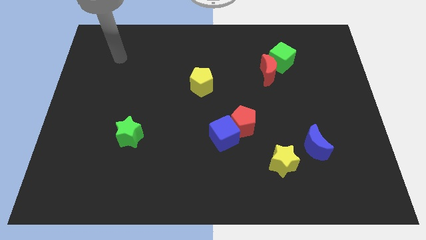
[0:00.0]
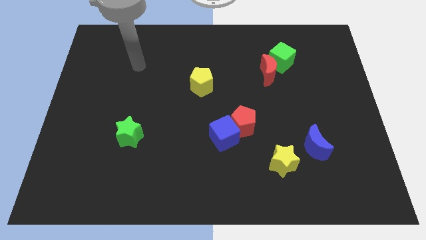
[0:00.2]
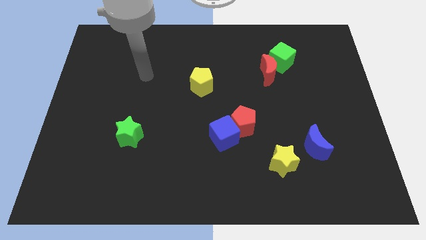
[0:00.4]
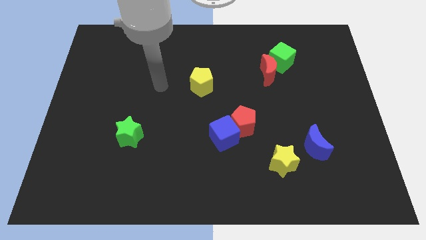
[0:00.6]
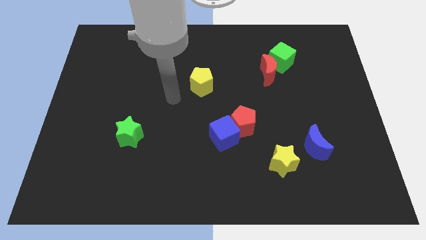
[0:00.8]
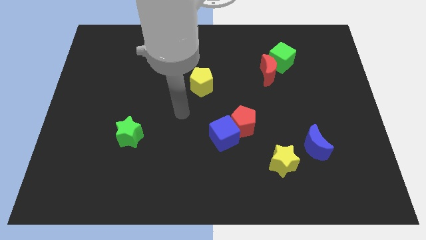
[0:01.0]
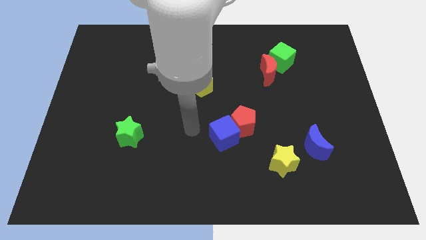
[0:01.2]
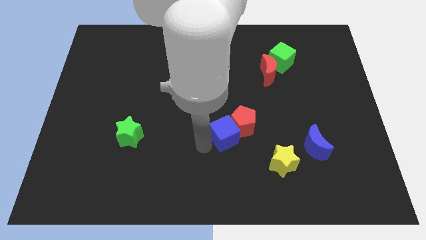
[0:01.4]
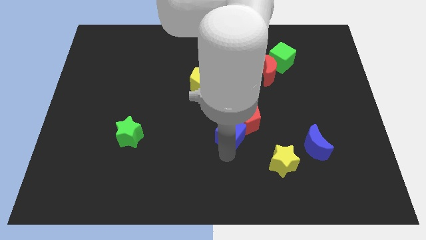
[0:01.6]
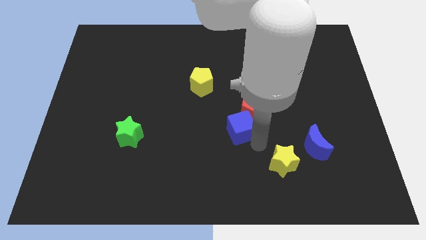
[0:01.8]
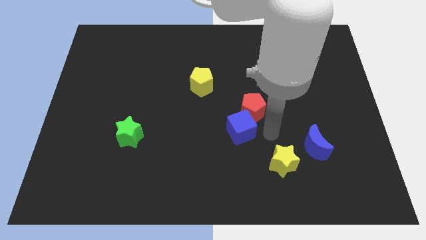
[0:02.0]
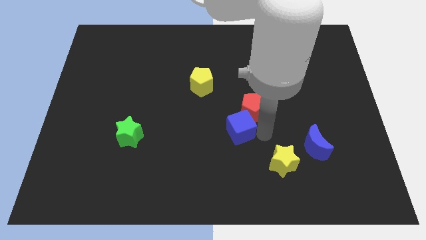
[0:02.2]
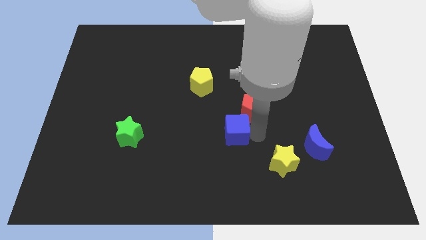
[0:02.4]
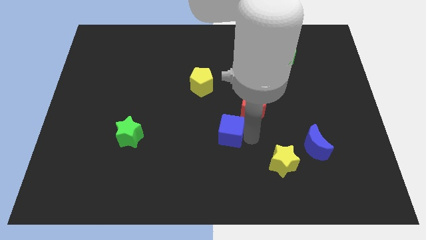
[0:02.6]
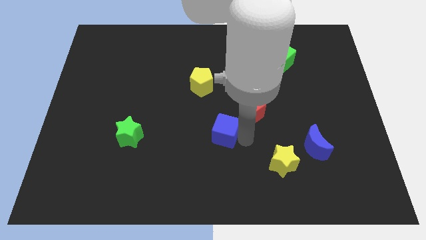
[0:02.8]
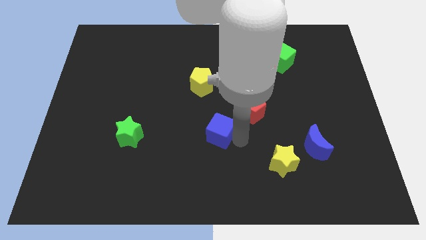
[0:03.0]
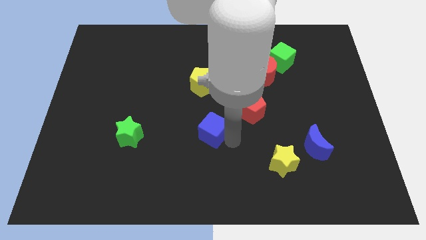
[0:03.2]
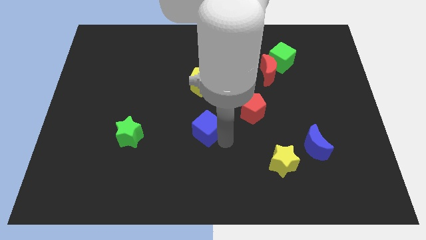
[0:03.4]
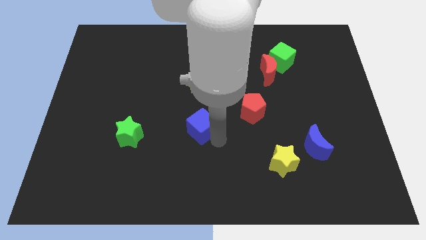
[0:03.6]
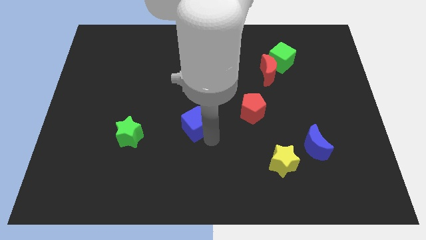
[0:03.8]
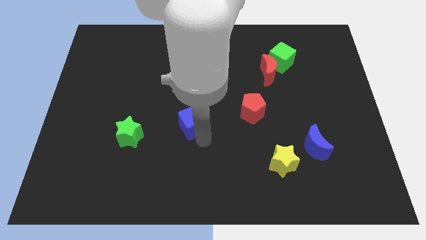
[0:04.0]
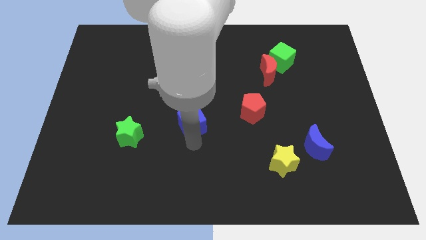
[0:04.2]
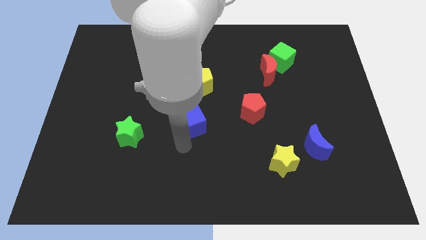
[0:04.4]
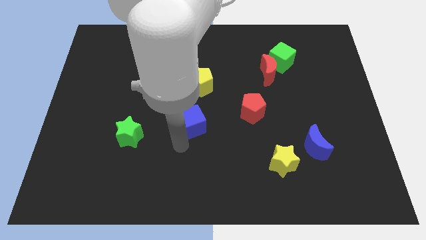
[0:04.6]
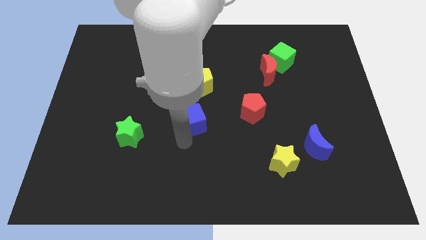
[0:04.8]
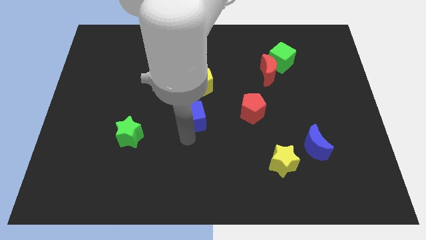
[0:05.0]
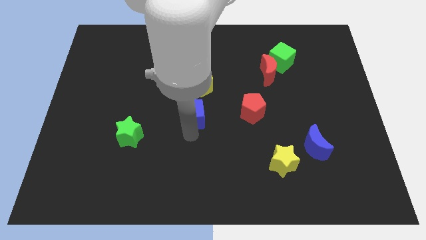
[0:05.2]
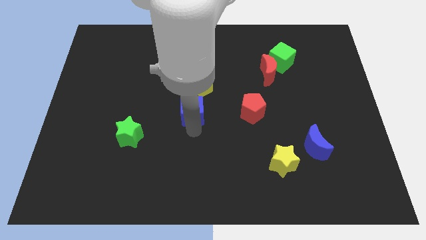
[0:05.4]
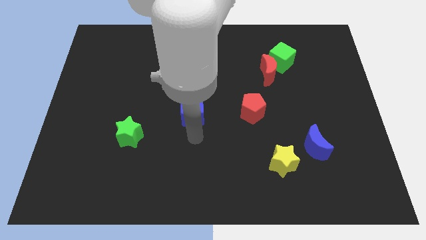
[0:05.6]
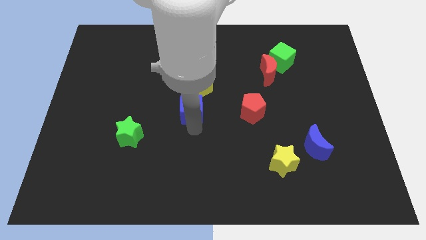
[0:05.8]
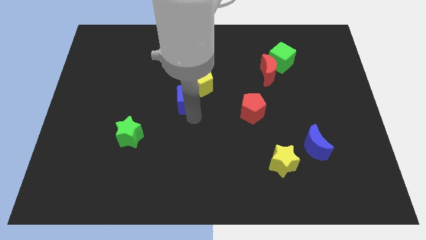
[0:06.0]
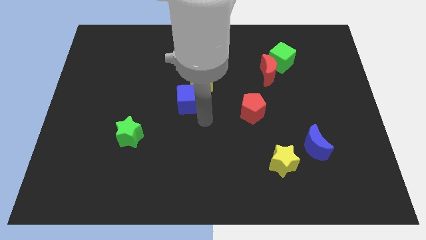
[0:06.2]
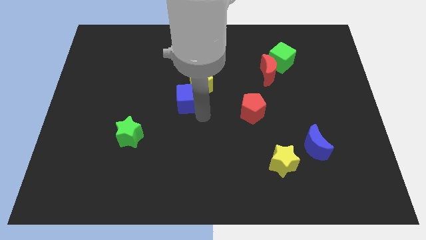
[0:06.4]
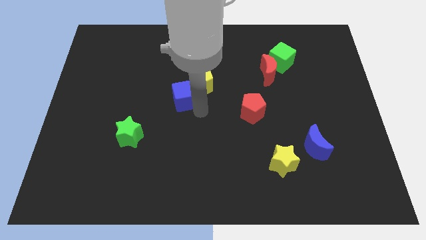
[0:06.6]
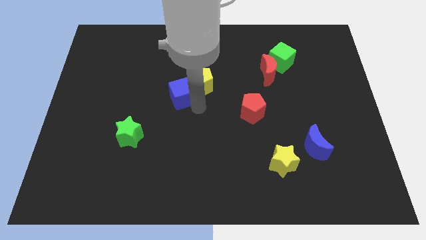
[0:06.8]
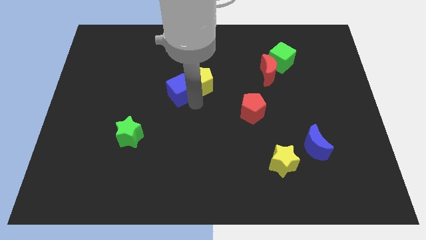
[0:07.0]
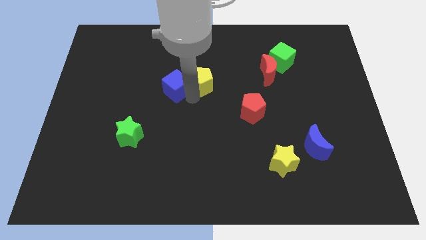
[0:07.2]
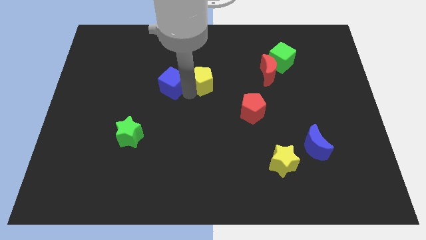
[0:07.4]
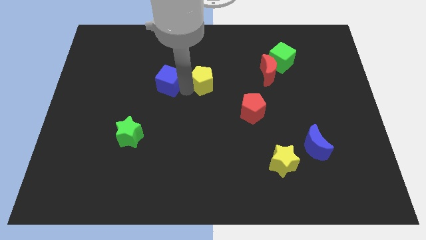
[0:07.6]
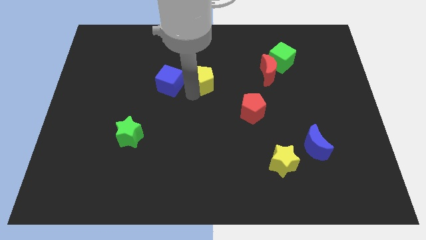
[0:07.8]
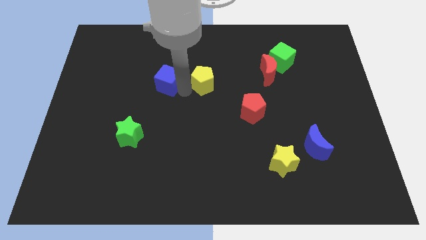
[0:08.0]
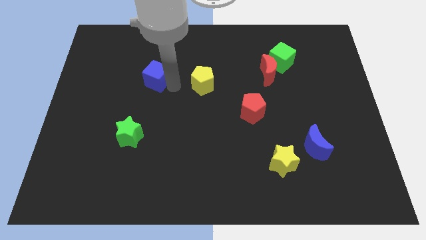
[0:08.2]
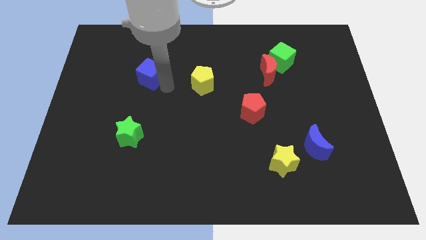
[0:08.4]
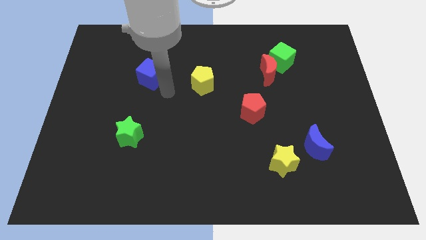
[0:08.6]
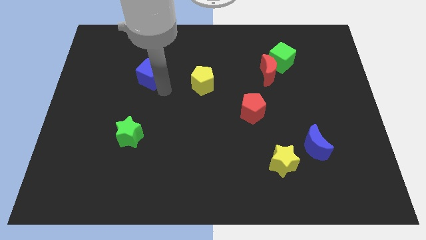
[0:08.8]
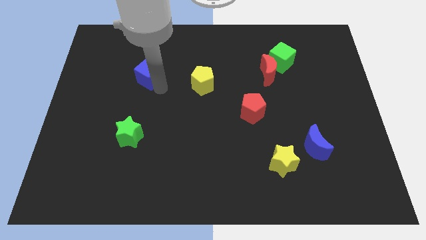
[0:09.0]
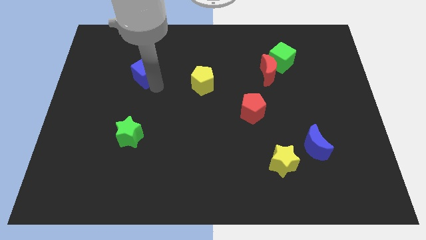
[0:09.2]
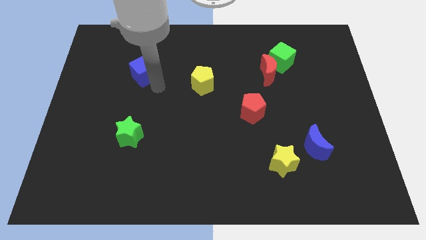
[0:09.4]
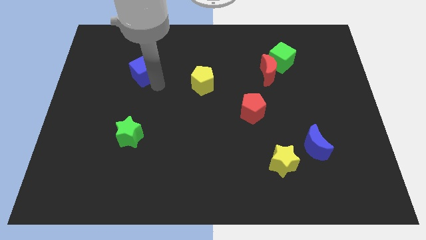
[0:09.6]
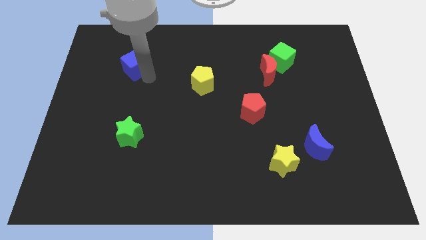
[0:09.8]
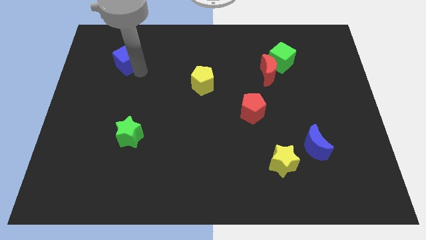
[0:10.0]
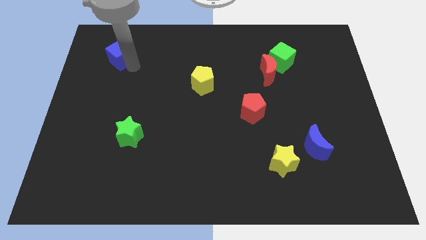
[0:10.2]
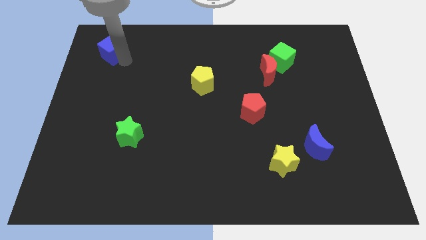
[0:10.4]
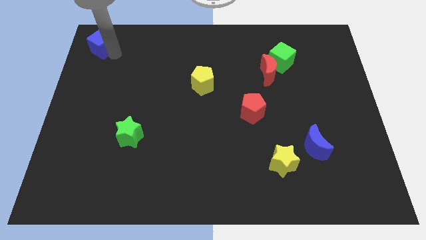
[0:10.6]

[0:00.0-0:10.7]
push the blue cube to the top left corner
